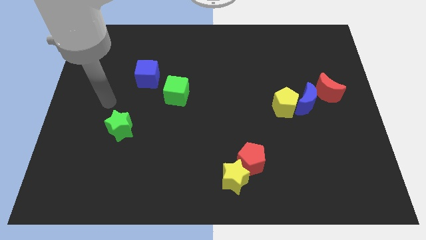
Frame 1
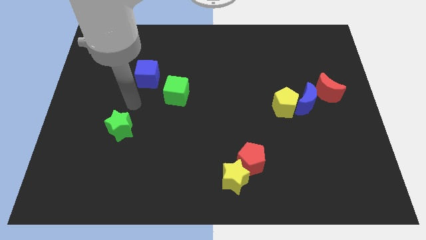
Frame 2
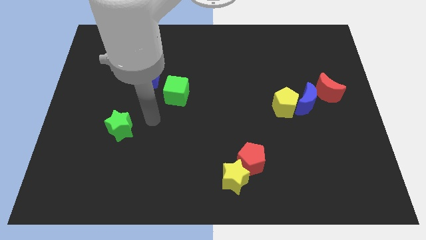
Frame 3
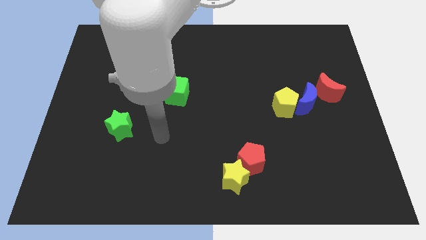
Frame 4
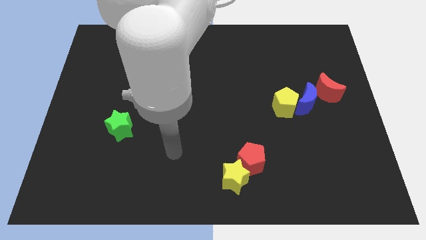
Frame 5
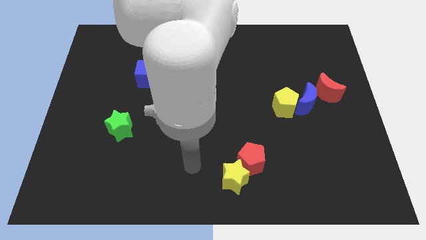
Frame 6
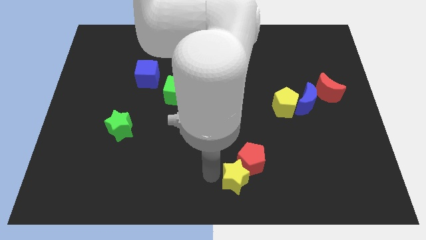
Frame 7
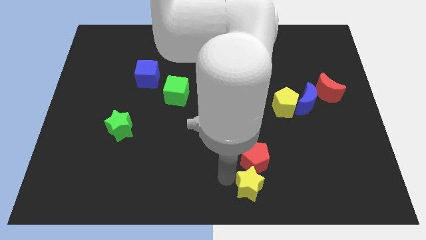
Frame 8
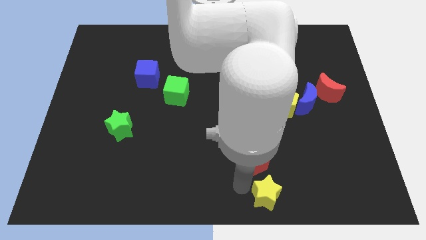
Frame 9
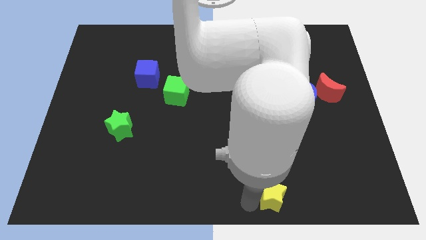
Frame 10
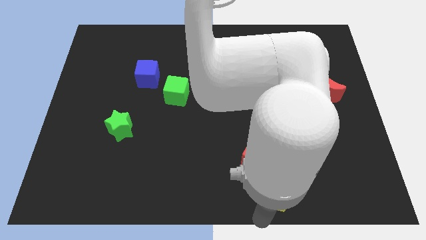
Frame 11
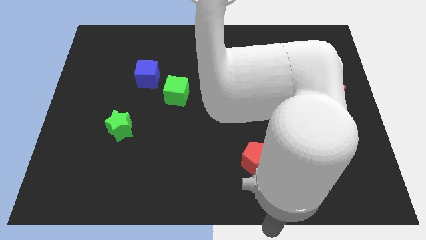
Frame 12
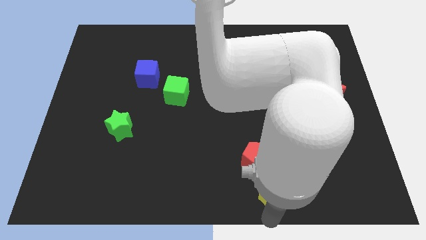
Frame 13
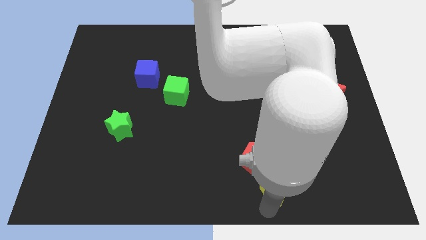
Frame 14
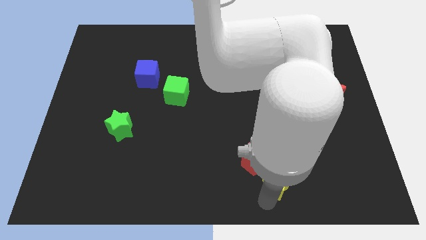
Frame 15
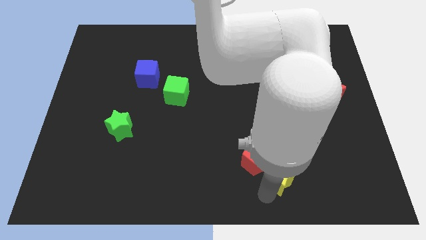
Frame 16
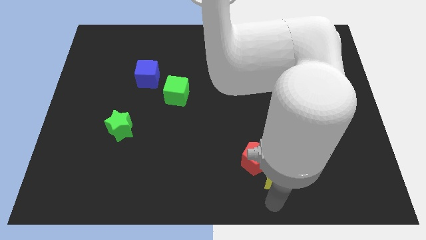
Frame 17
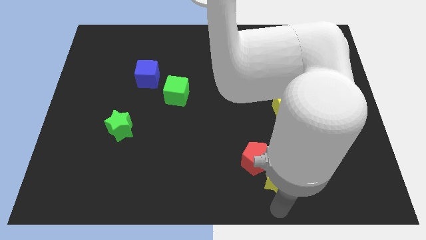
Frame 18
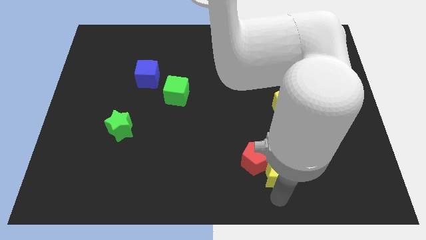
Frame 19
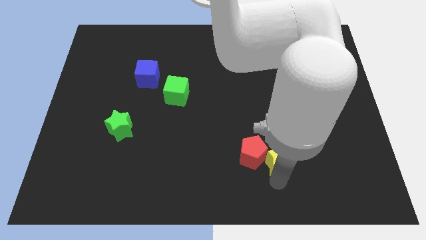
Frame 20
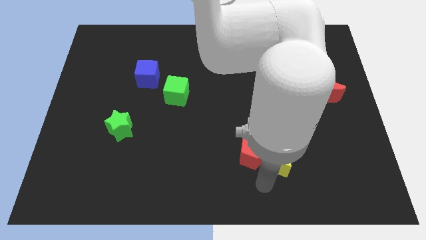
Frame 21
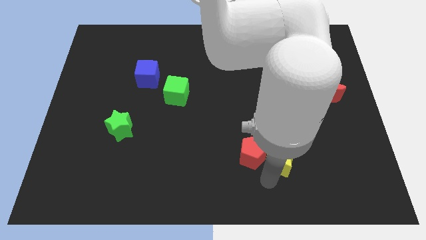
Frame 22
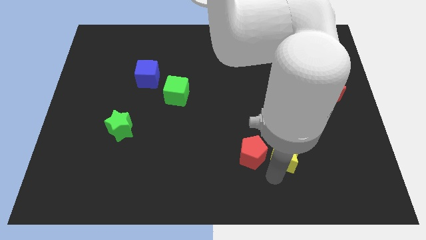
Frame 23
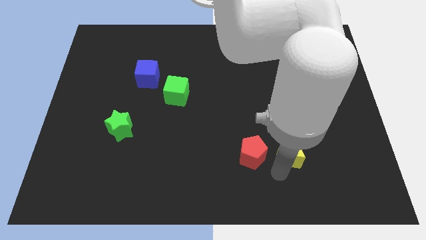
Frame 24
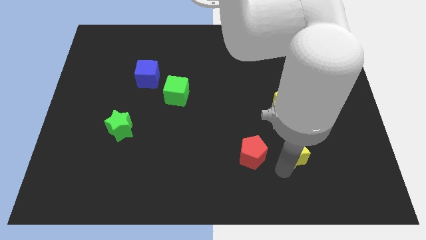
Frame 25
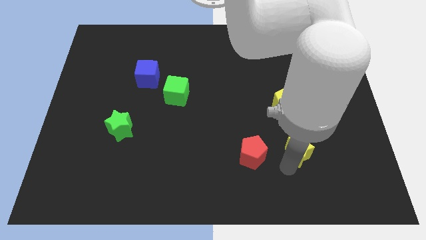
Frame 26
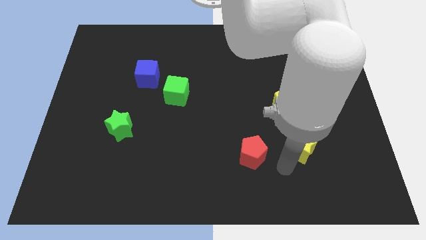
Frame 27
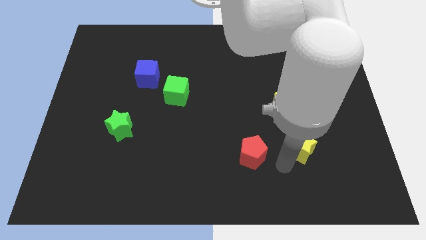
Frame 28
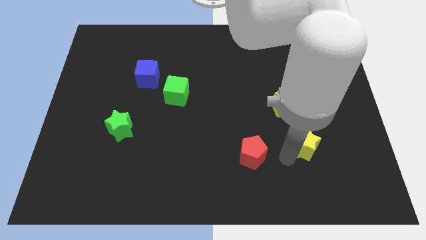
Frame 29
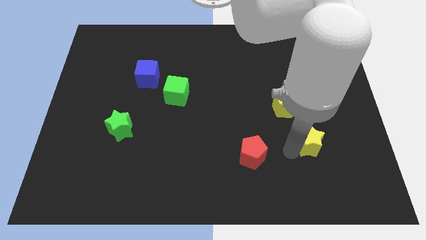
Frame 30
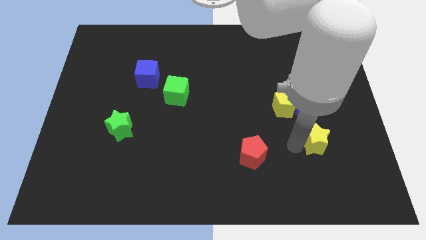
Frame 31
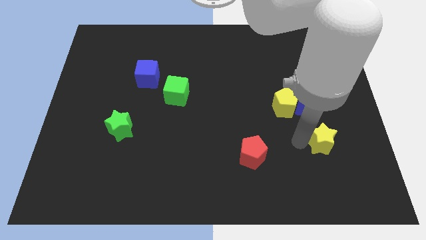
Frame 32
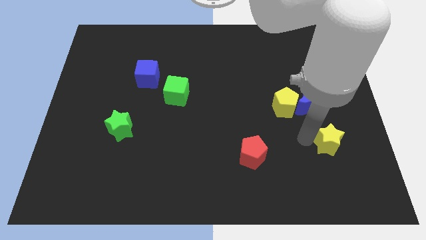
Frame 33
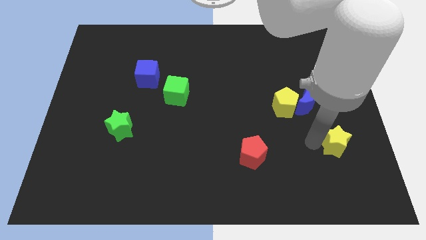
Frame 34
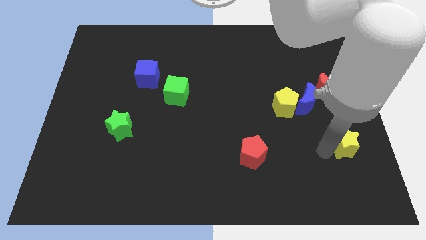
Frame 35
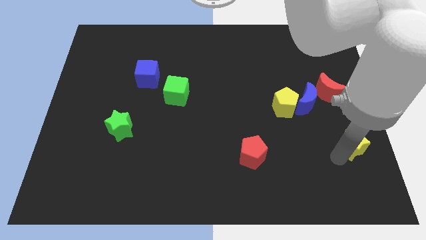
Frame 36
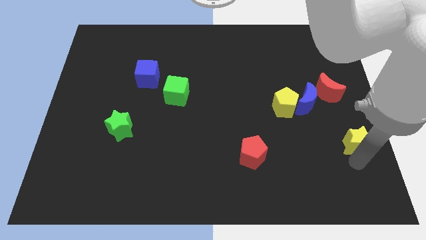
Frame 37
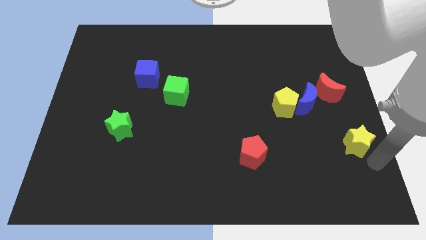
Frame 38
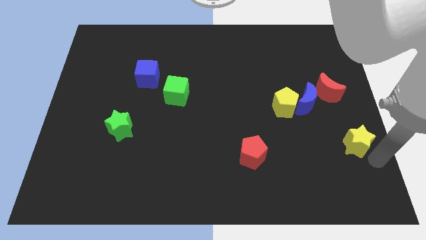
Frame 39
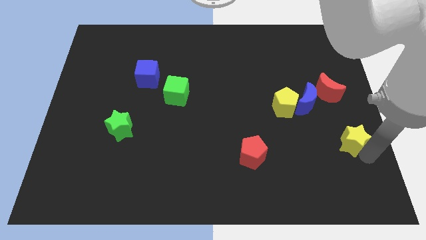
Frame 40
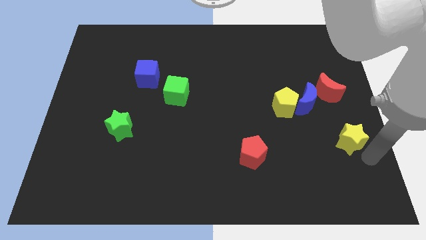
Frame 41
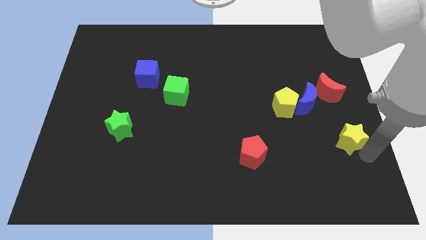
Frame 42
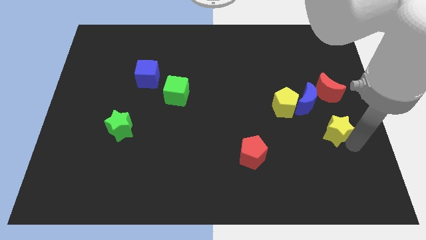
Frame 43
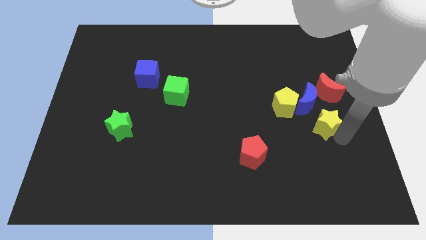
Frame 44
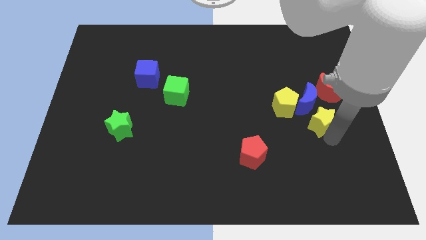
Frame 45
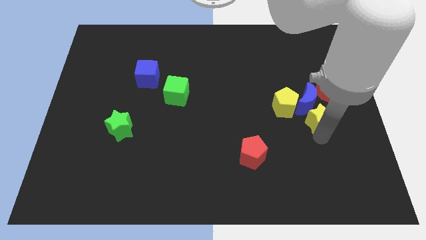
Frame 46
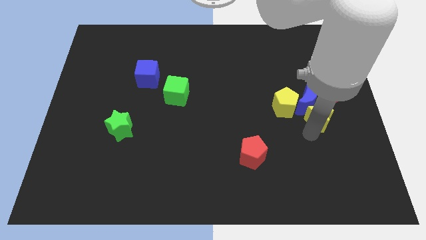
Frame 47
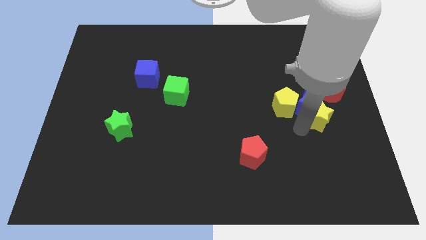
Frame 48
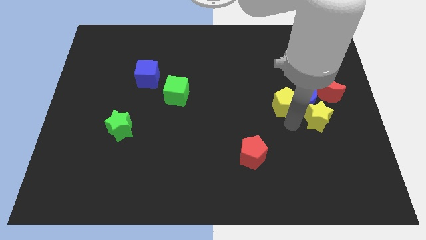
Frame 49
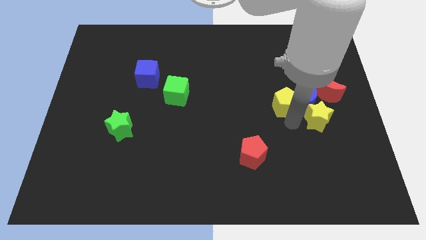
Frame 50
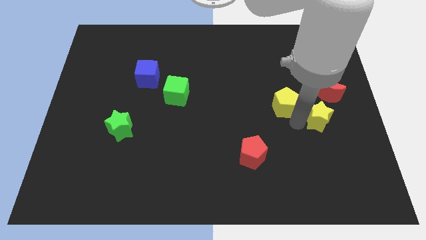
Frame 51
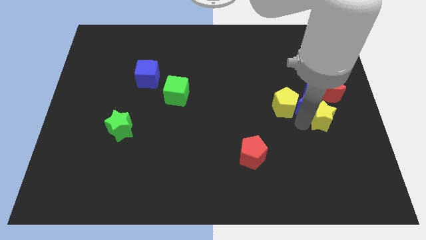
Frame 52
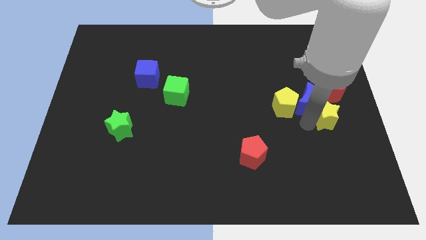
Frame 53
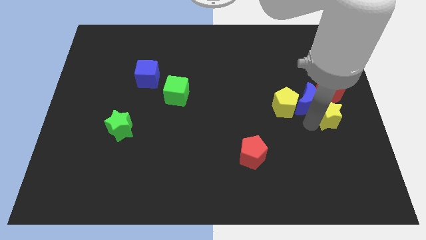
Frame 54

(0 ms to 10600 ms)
move the yellow star to the center right
